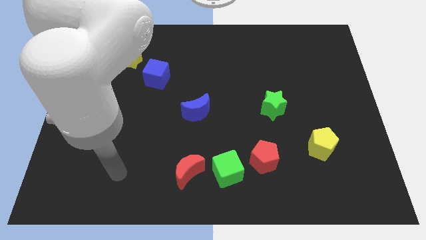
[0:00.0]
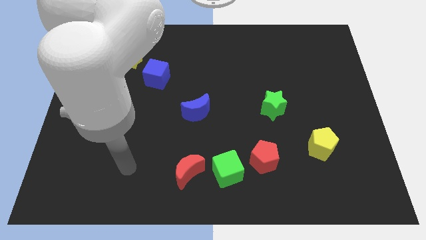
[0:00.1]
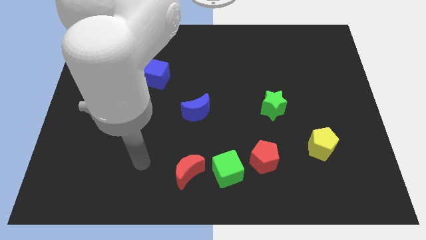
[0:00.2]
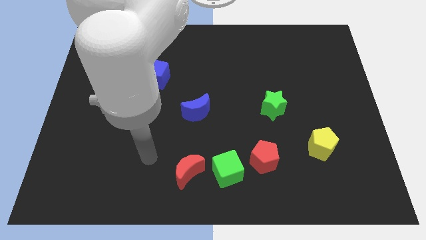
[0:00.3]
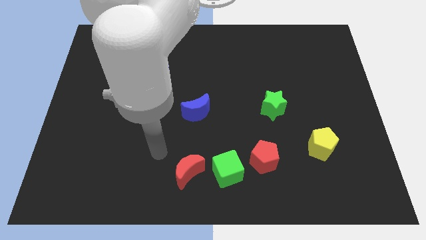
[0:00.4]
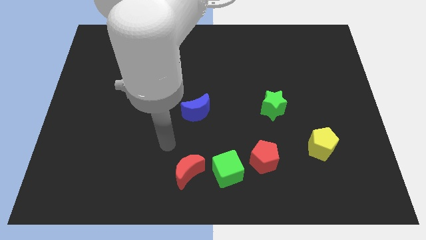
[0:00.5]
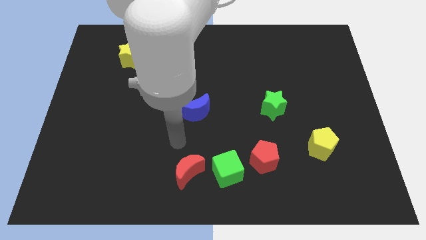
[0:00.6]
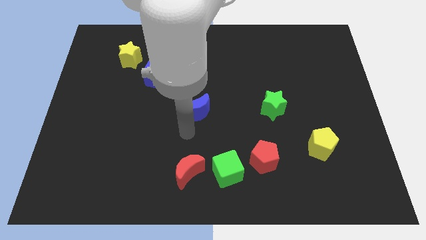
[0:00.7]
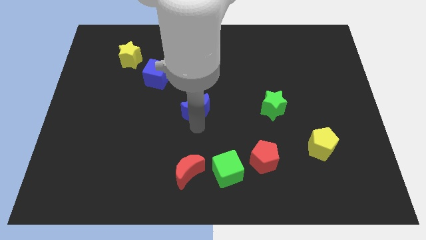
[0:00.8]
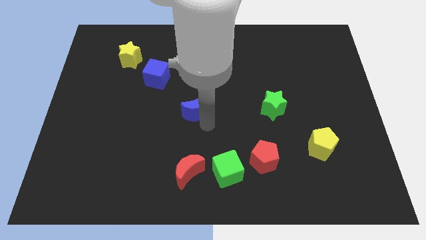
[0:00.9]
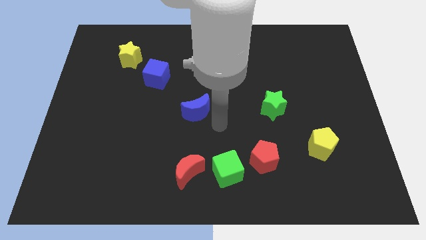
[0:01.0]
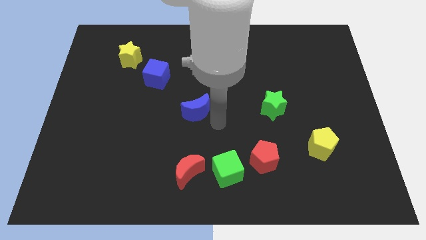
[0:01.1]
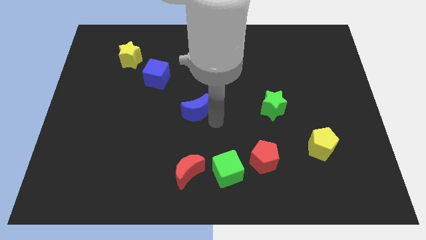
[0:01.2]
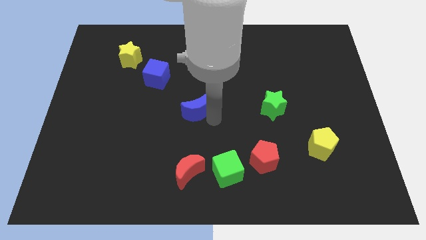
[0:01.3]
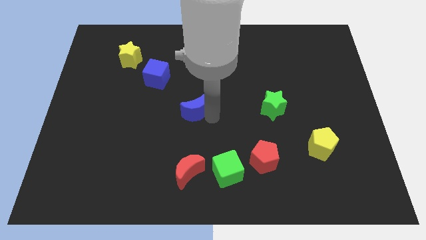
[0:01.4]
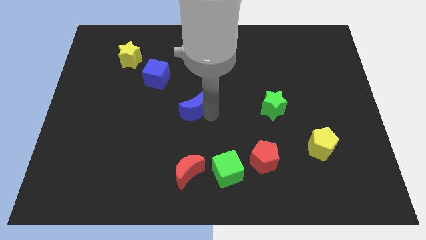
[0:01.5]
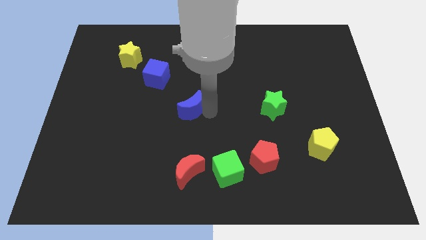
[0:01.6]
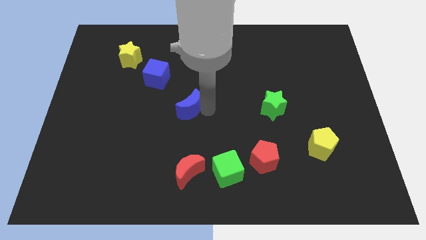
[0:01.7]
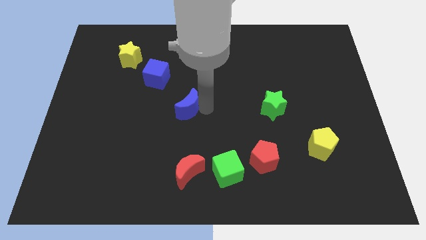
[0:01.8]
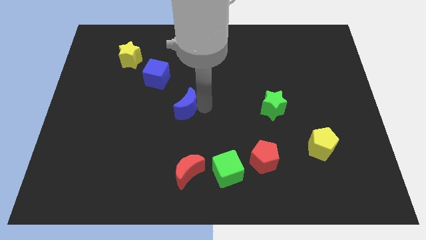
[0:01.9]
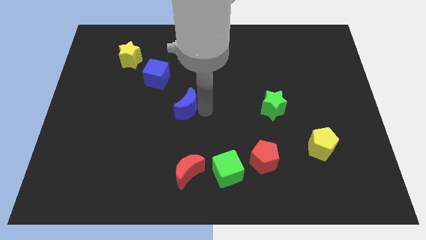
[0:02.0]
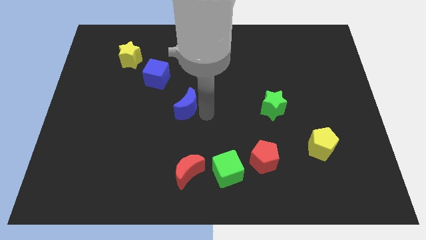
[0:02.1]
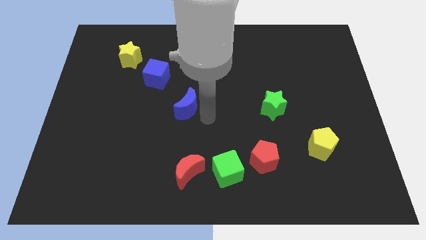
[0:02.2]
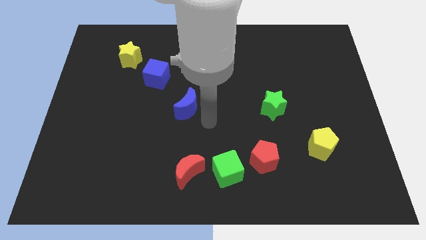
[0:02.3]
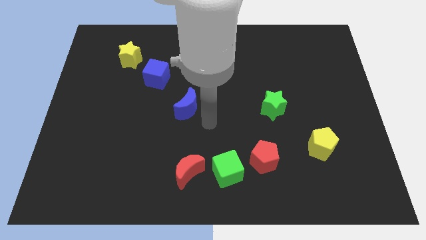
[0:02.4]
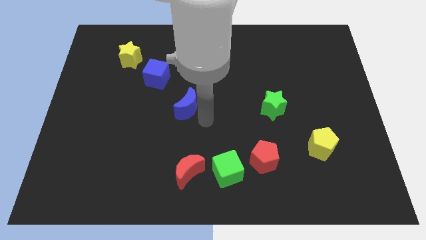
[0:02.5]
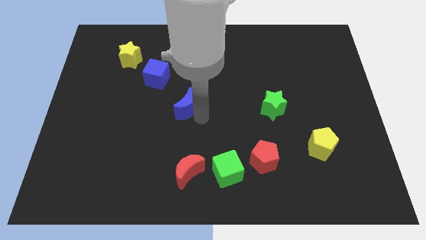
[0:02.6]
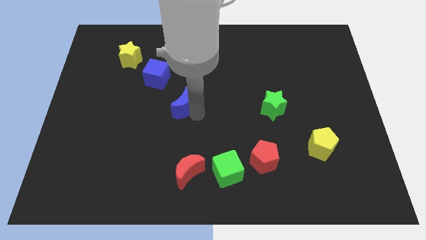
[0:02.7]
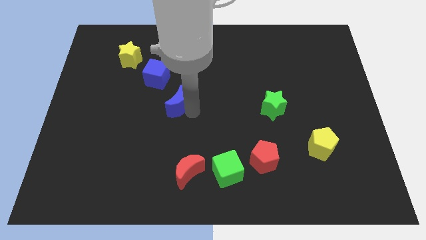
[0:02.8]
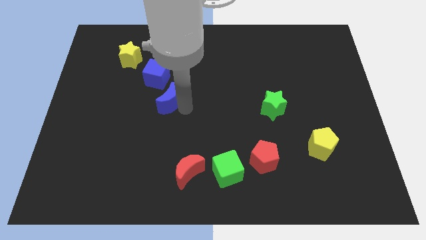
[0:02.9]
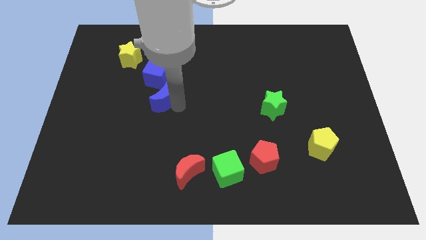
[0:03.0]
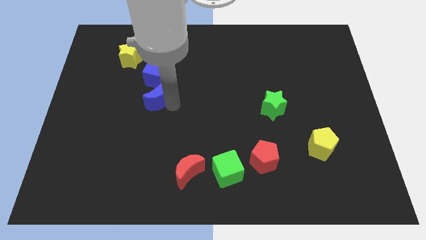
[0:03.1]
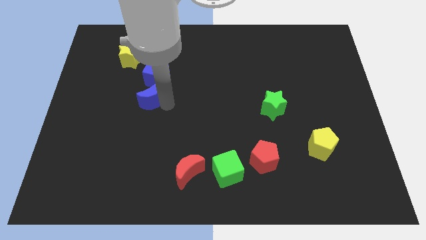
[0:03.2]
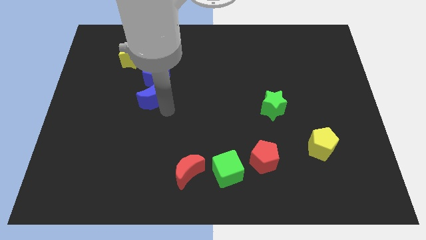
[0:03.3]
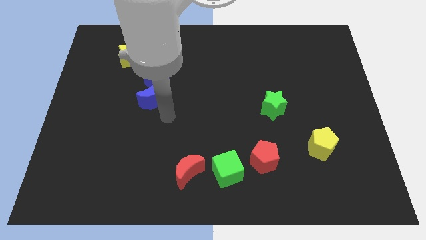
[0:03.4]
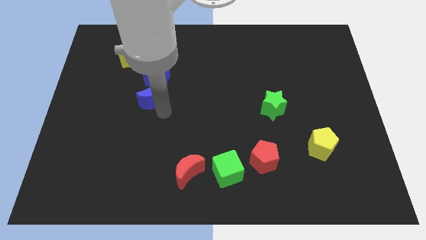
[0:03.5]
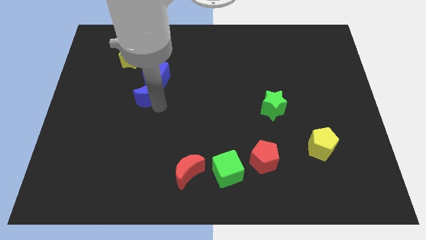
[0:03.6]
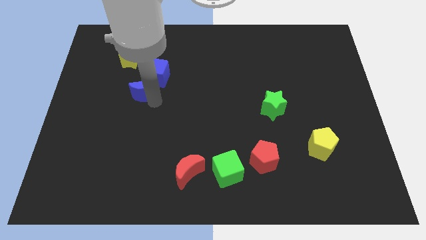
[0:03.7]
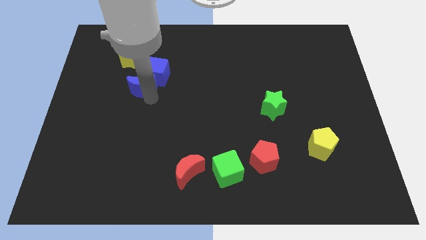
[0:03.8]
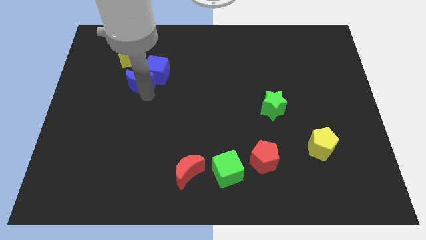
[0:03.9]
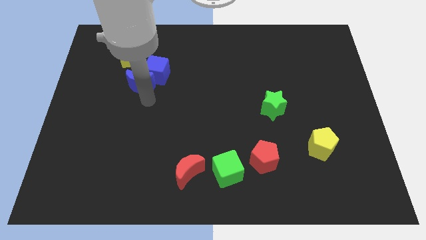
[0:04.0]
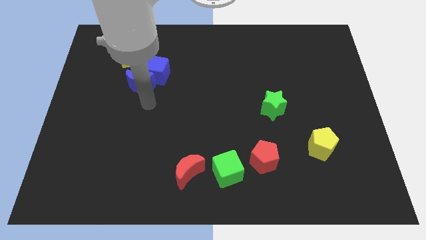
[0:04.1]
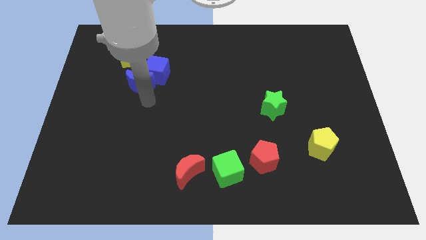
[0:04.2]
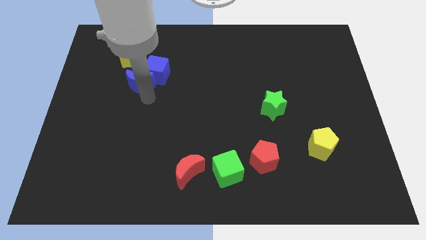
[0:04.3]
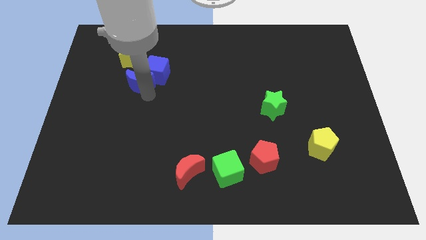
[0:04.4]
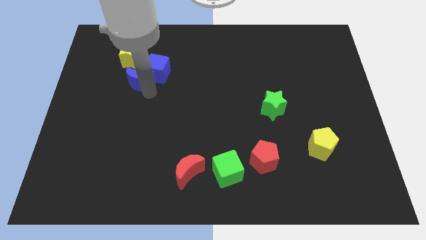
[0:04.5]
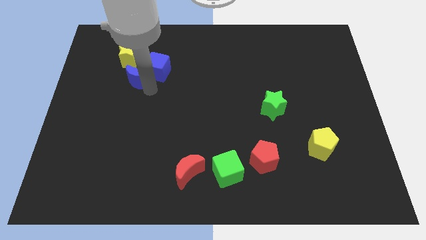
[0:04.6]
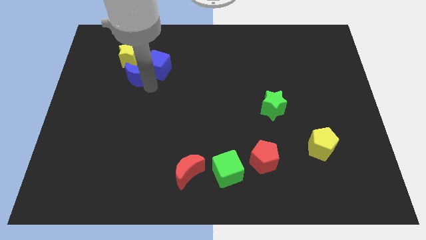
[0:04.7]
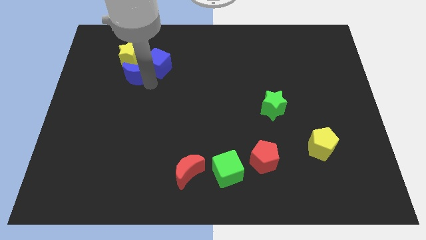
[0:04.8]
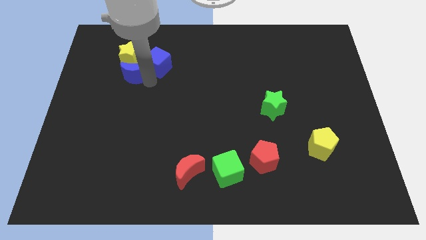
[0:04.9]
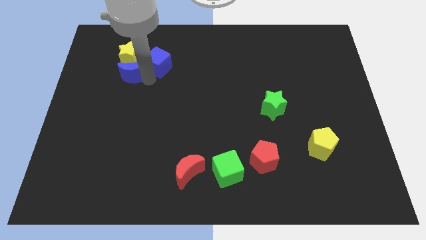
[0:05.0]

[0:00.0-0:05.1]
move the blue moon next to the yellow star

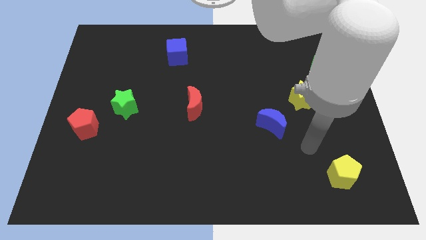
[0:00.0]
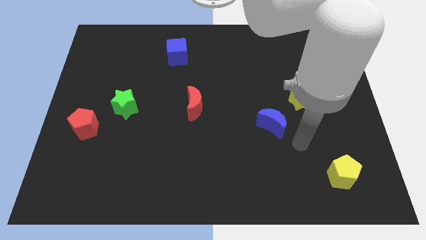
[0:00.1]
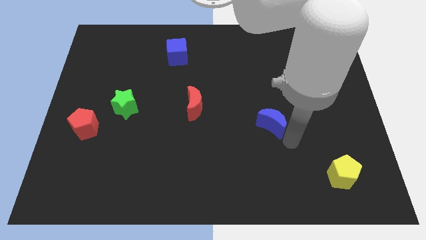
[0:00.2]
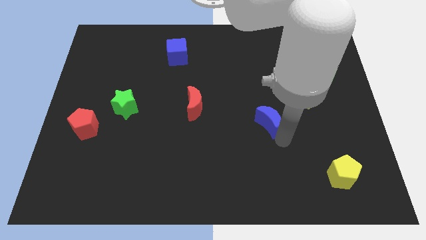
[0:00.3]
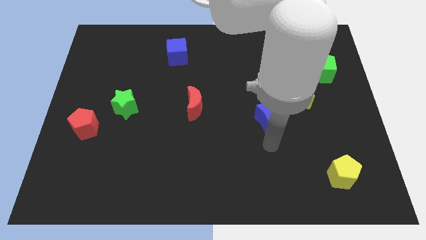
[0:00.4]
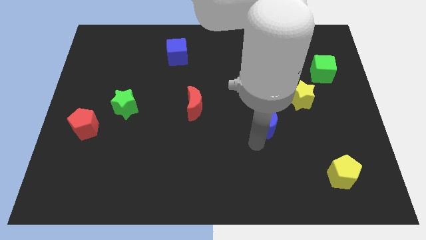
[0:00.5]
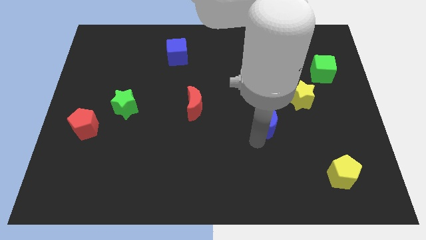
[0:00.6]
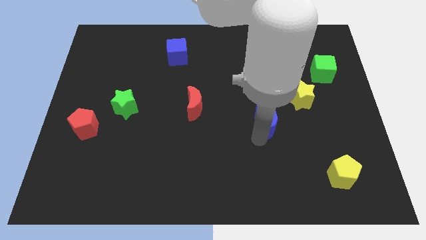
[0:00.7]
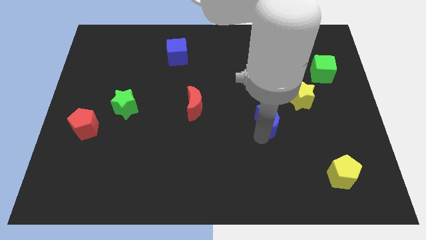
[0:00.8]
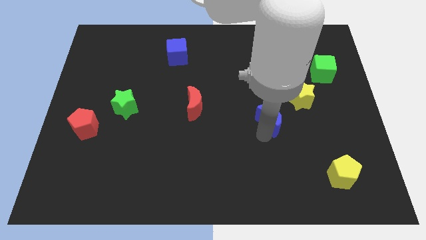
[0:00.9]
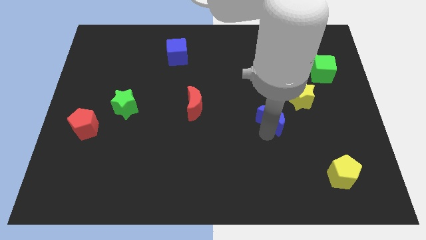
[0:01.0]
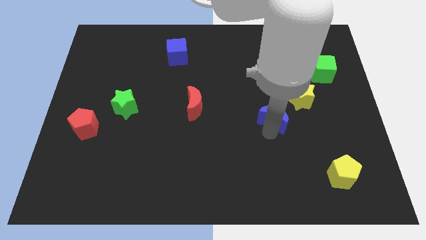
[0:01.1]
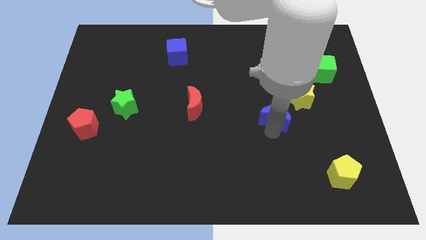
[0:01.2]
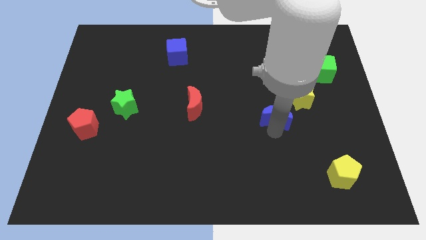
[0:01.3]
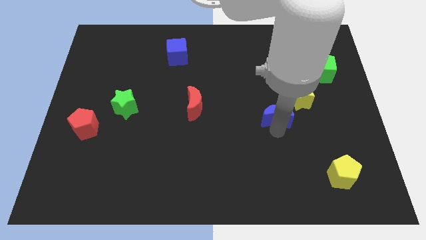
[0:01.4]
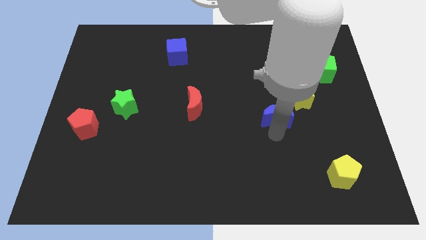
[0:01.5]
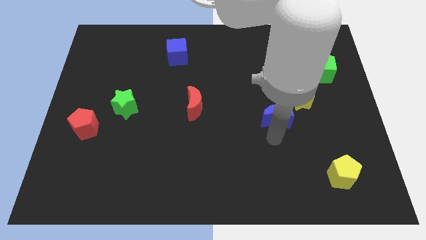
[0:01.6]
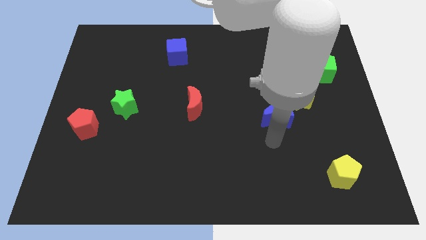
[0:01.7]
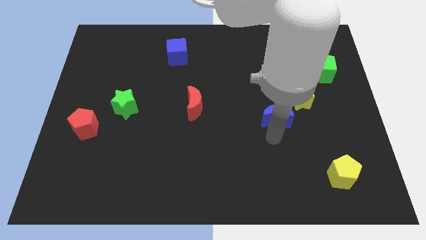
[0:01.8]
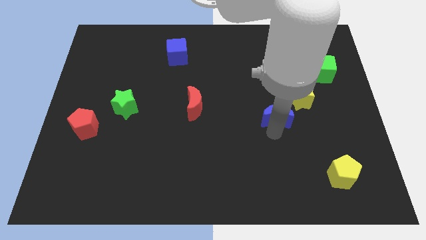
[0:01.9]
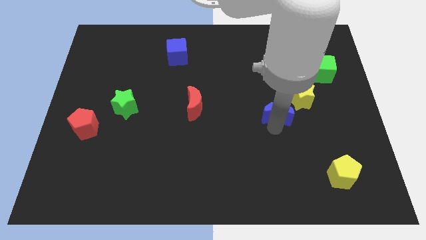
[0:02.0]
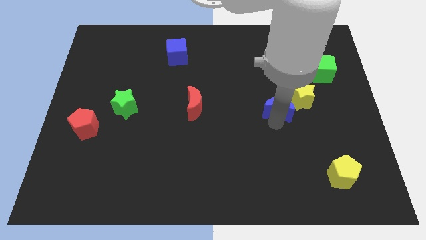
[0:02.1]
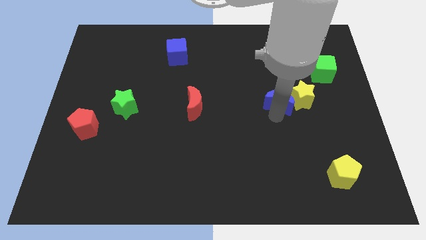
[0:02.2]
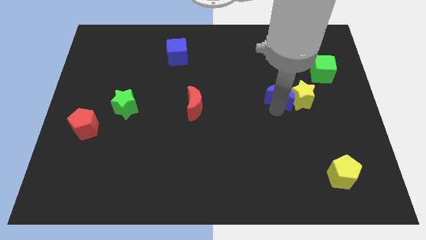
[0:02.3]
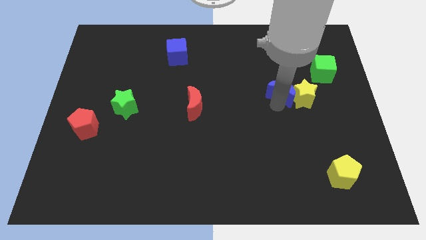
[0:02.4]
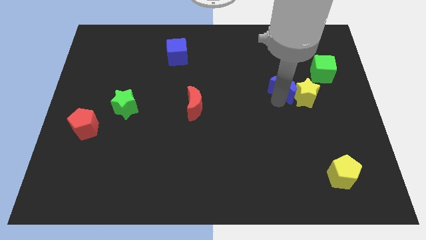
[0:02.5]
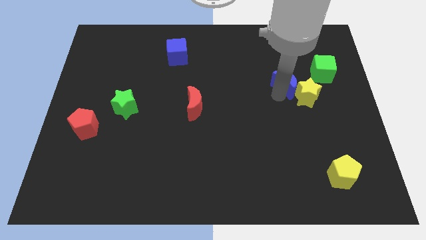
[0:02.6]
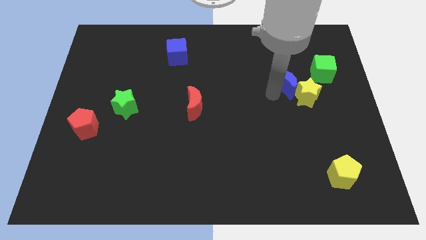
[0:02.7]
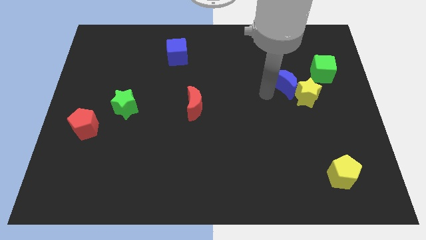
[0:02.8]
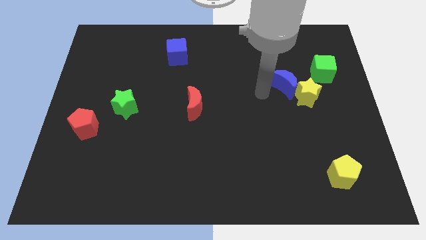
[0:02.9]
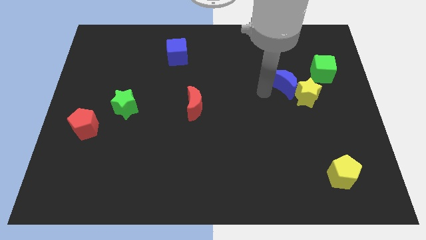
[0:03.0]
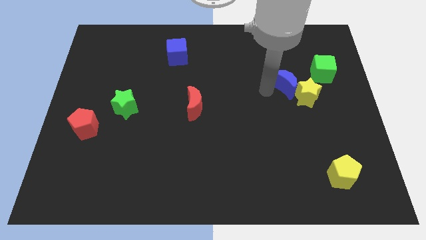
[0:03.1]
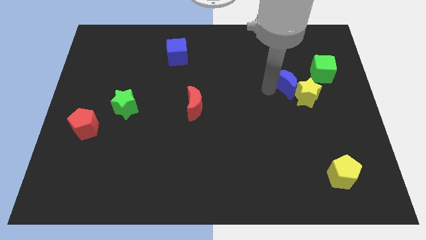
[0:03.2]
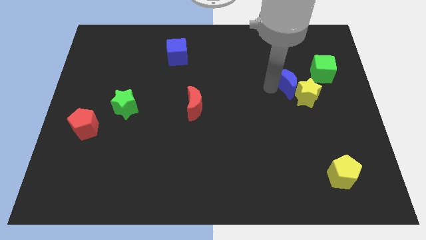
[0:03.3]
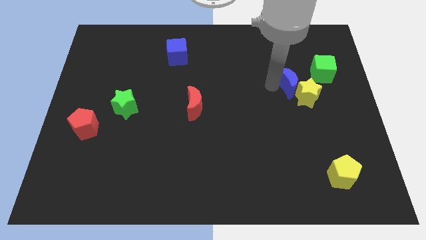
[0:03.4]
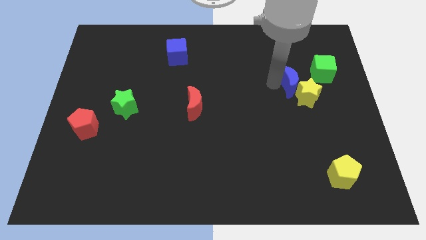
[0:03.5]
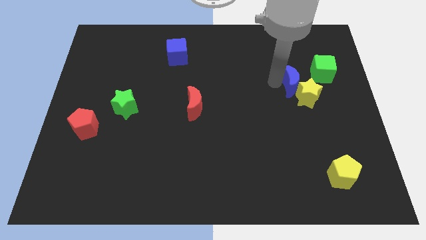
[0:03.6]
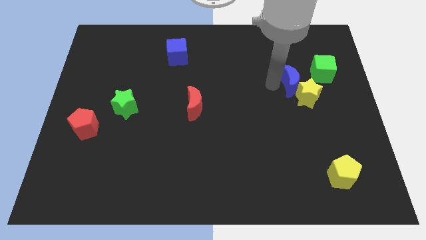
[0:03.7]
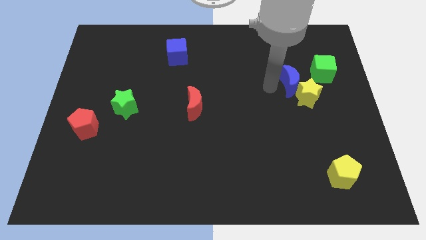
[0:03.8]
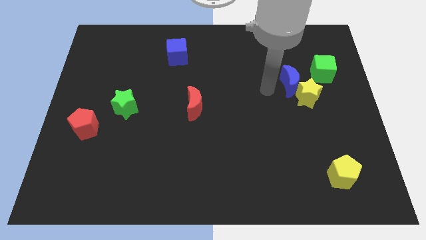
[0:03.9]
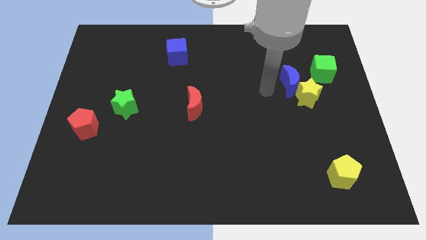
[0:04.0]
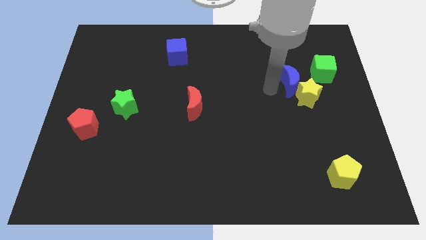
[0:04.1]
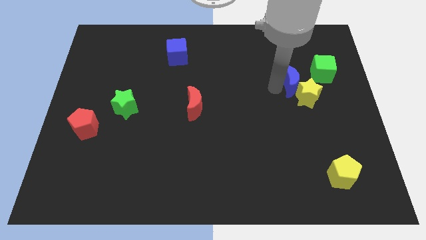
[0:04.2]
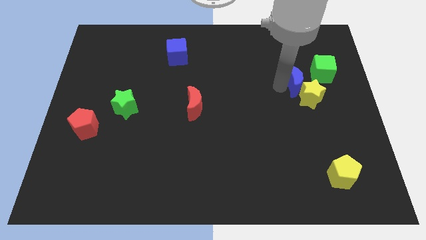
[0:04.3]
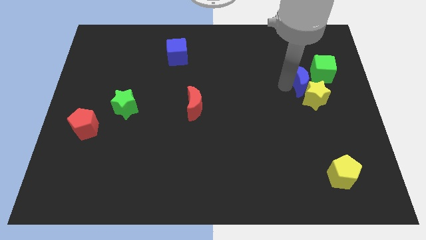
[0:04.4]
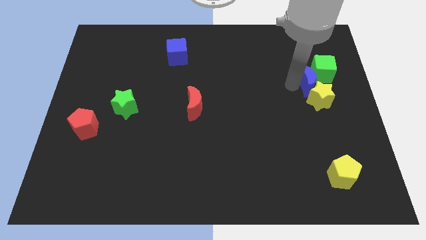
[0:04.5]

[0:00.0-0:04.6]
slide the blue moon towards the green cube
